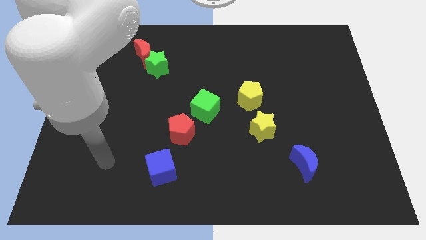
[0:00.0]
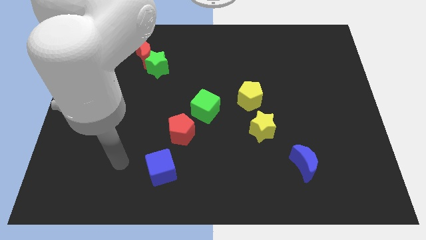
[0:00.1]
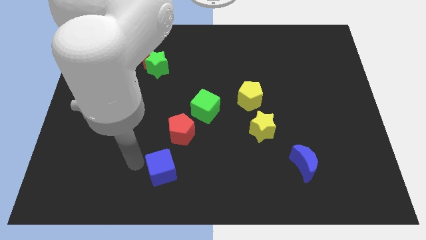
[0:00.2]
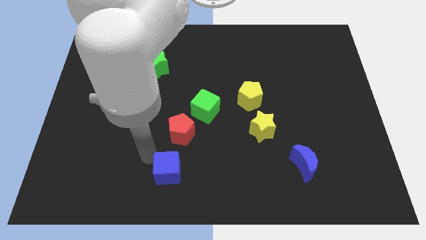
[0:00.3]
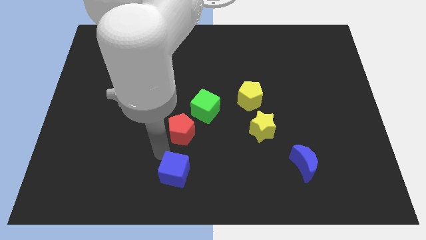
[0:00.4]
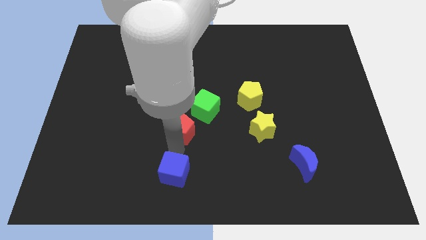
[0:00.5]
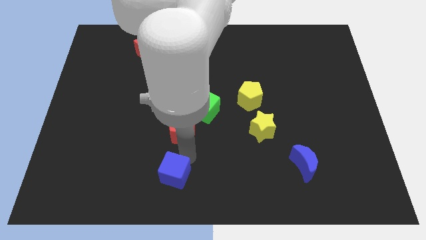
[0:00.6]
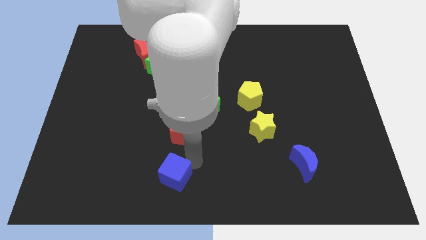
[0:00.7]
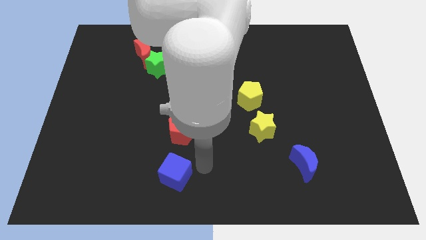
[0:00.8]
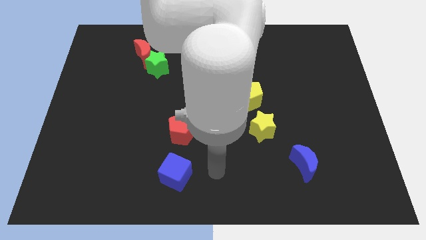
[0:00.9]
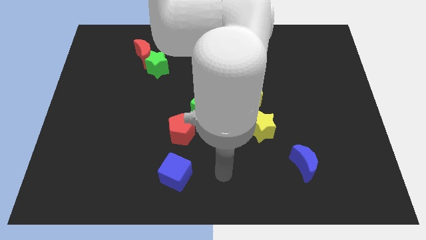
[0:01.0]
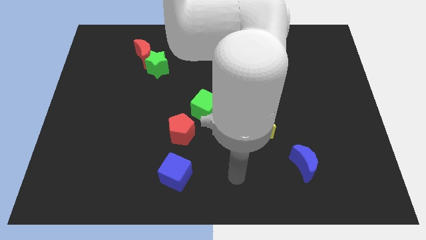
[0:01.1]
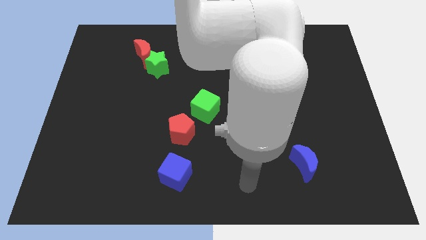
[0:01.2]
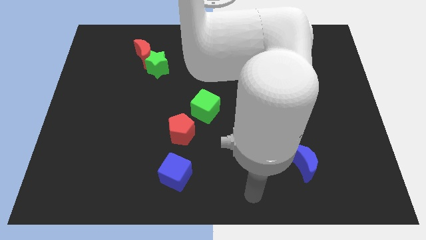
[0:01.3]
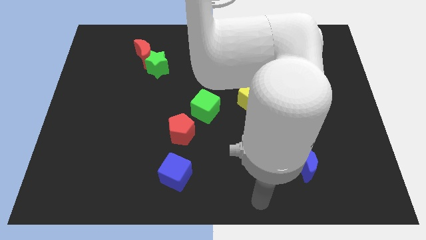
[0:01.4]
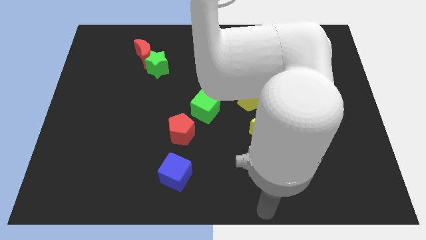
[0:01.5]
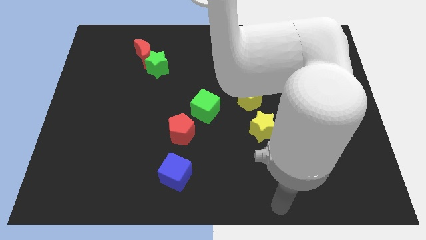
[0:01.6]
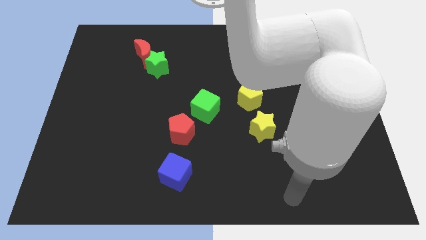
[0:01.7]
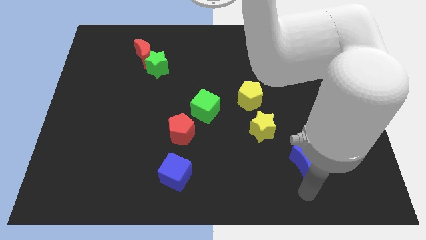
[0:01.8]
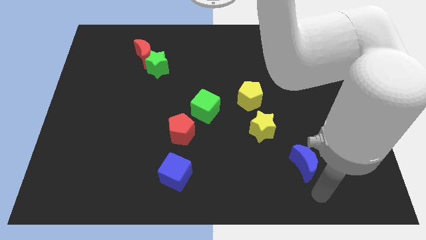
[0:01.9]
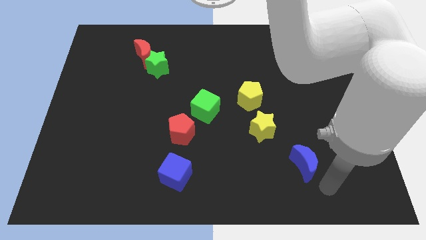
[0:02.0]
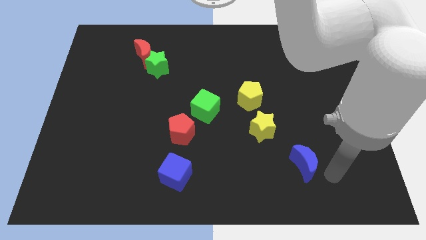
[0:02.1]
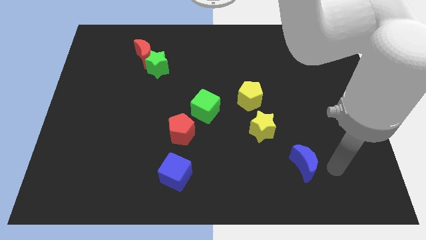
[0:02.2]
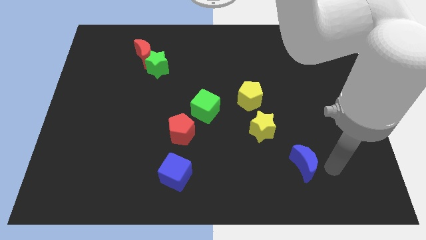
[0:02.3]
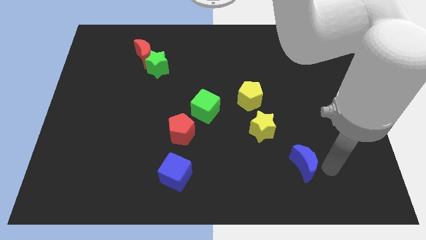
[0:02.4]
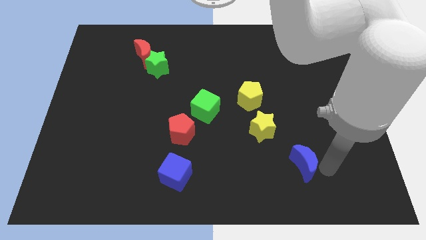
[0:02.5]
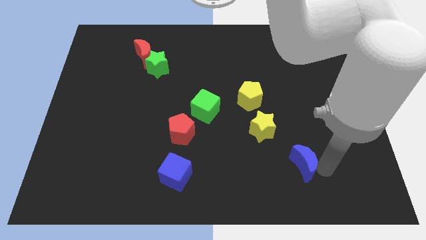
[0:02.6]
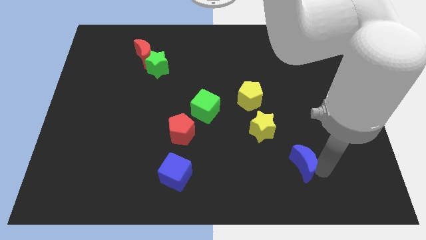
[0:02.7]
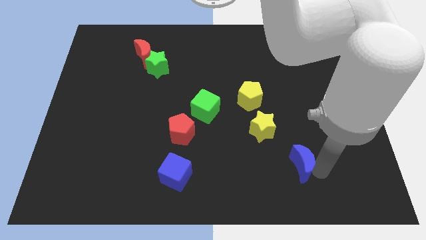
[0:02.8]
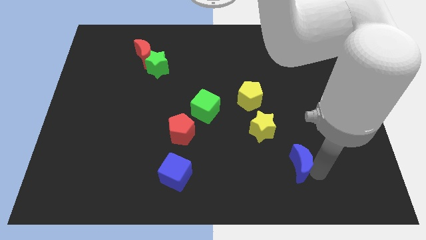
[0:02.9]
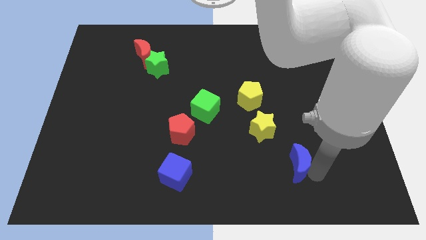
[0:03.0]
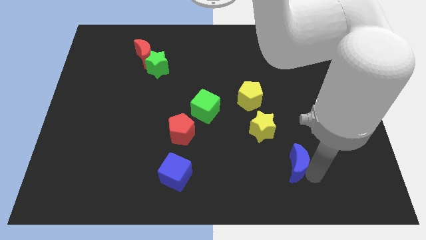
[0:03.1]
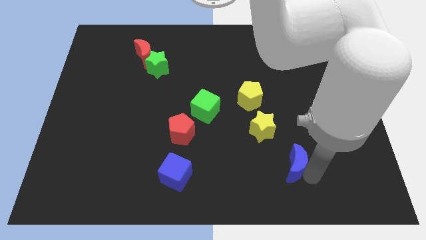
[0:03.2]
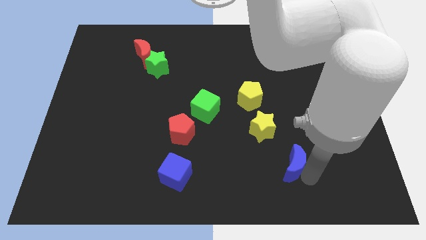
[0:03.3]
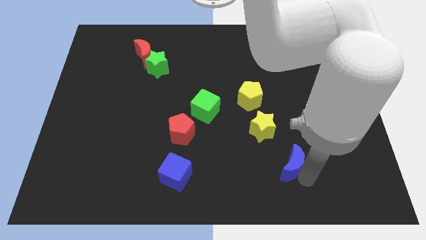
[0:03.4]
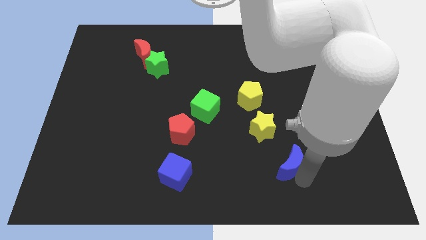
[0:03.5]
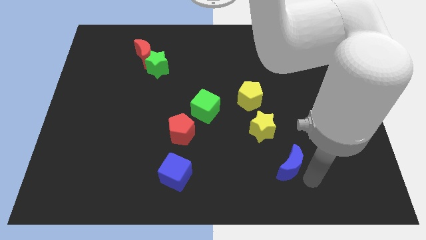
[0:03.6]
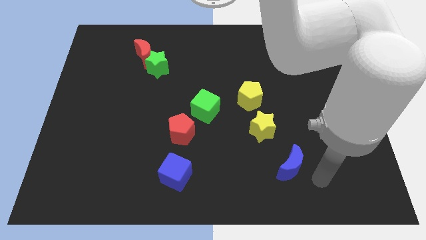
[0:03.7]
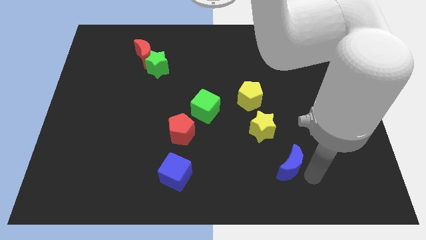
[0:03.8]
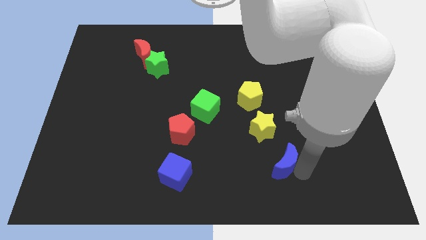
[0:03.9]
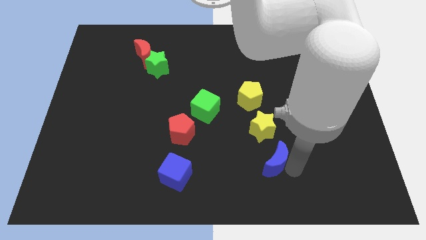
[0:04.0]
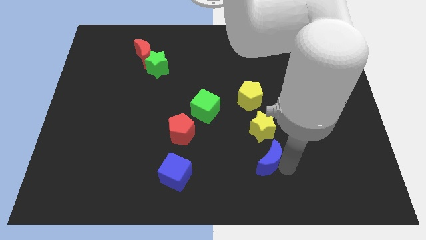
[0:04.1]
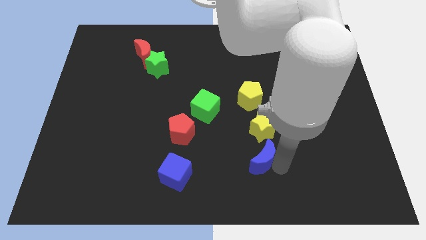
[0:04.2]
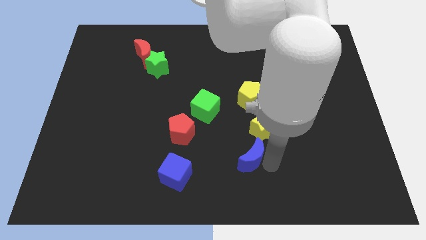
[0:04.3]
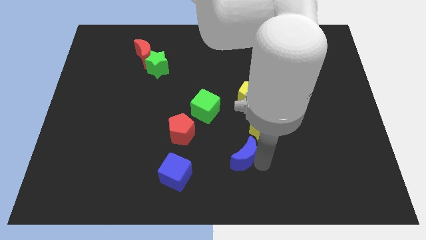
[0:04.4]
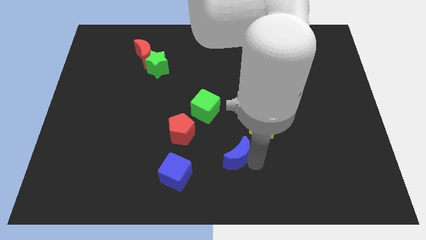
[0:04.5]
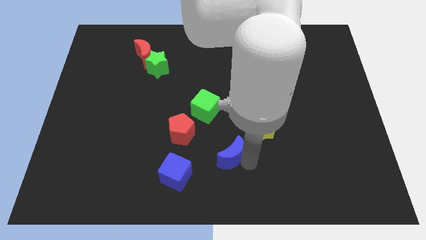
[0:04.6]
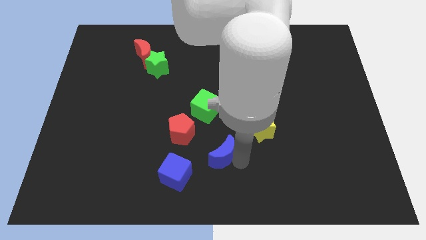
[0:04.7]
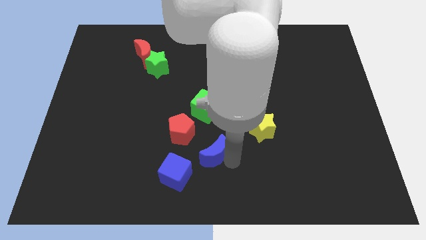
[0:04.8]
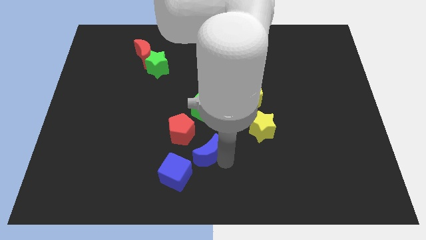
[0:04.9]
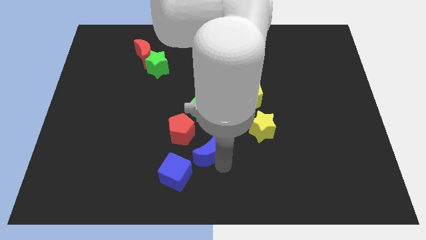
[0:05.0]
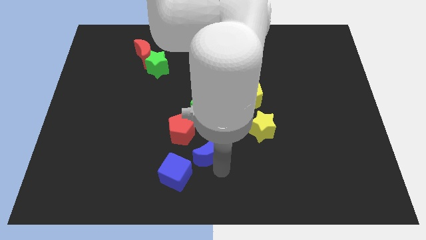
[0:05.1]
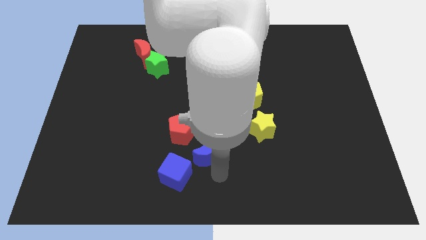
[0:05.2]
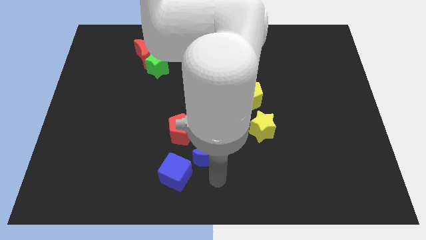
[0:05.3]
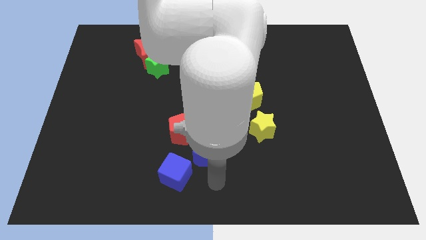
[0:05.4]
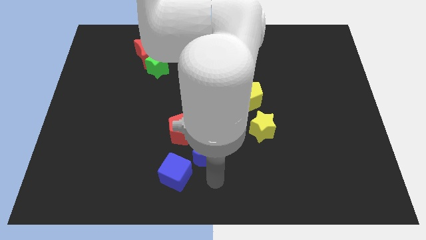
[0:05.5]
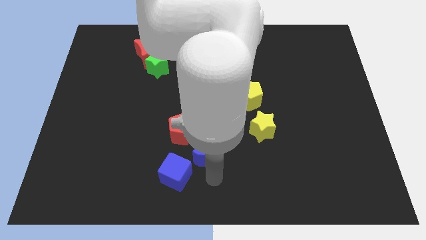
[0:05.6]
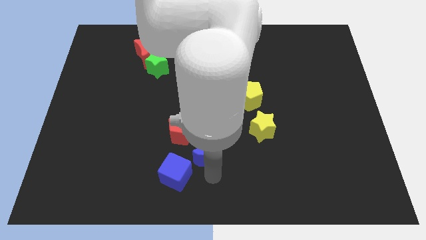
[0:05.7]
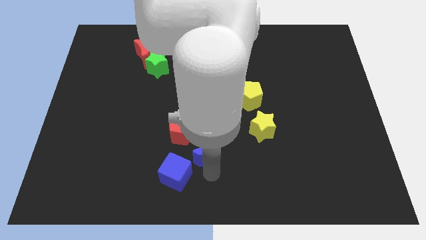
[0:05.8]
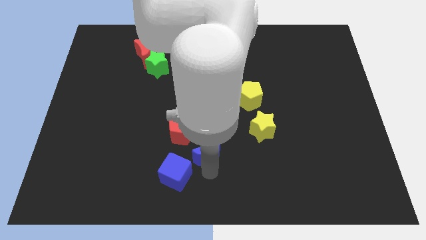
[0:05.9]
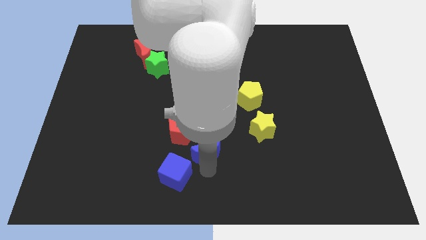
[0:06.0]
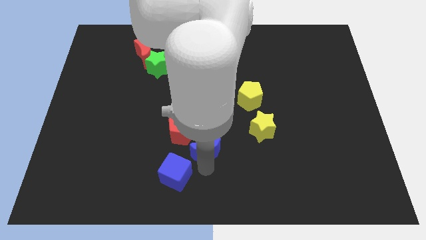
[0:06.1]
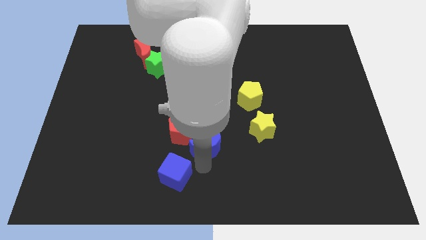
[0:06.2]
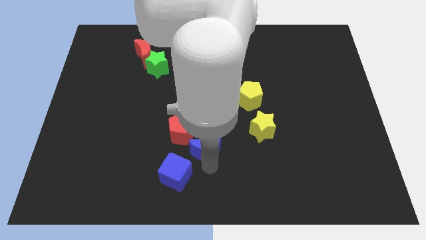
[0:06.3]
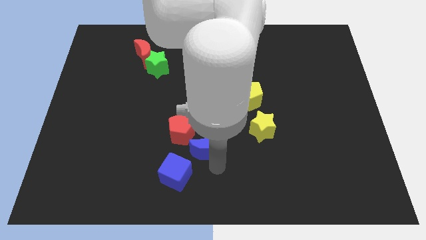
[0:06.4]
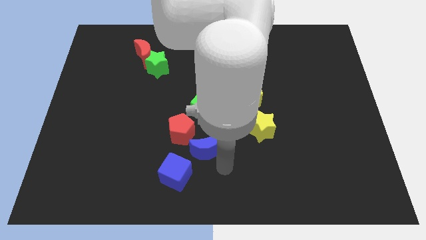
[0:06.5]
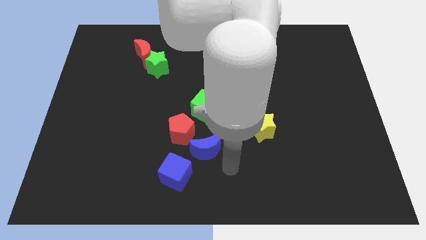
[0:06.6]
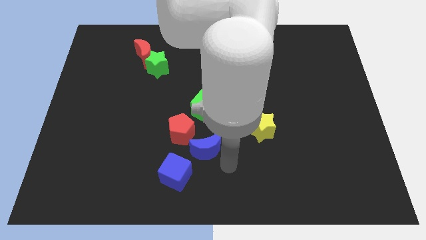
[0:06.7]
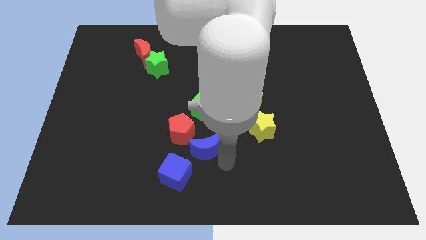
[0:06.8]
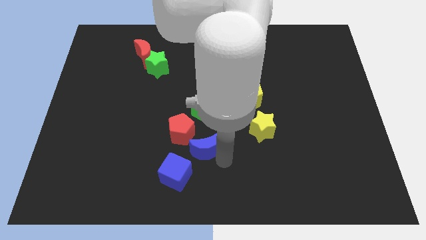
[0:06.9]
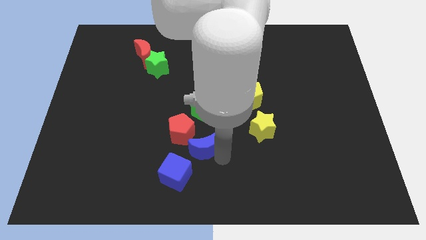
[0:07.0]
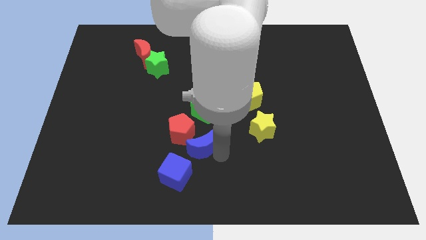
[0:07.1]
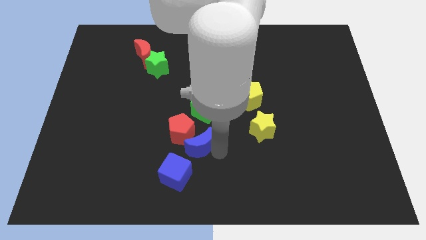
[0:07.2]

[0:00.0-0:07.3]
slide the blue moon to the red pentagon

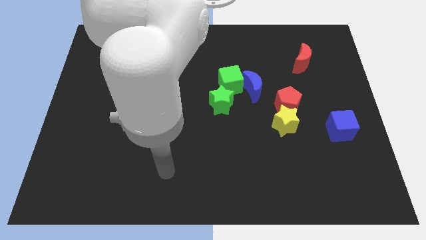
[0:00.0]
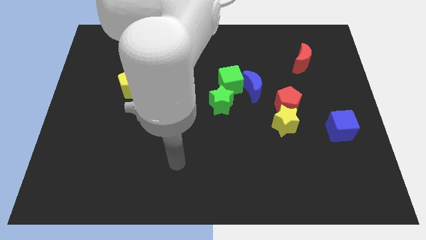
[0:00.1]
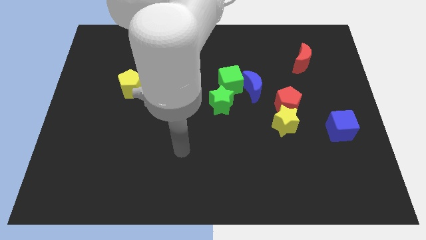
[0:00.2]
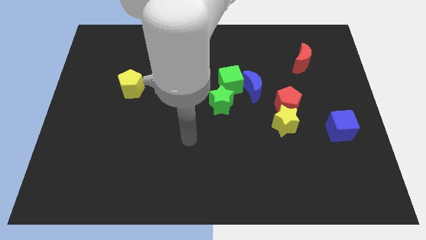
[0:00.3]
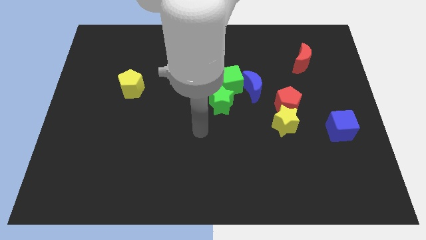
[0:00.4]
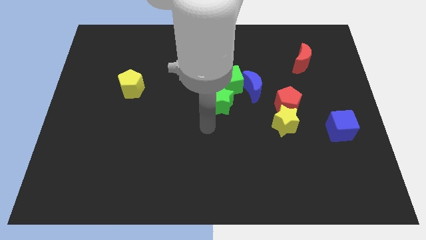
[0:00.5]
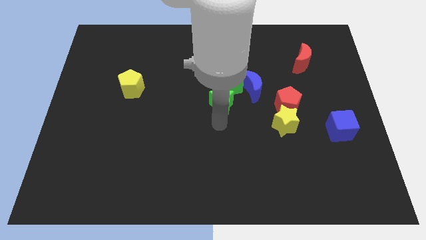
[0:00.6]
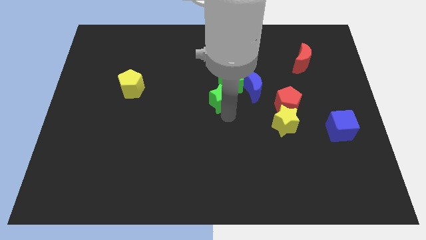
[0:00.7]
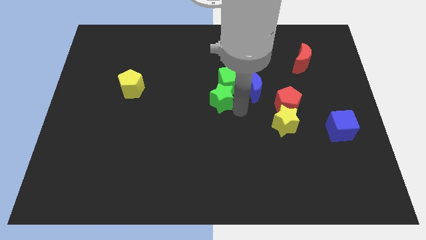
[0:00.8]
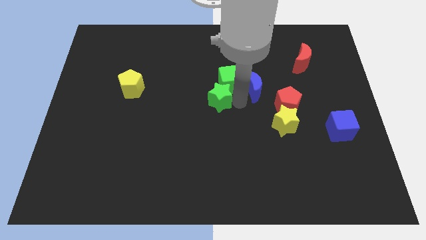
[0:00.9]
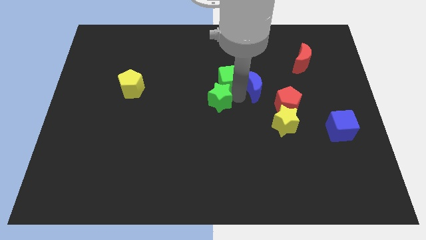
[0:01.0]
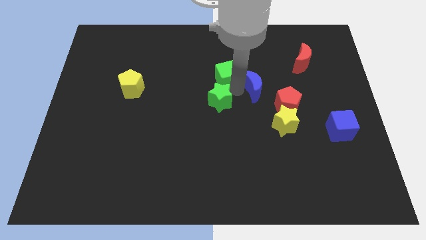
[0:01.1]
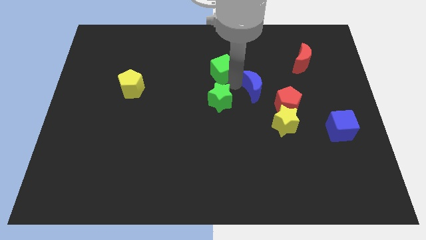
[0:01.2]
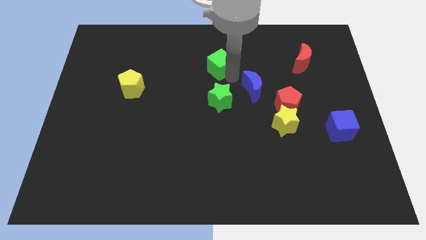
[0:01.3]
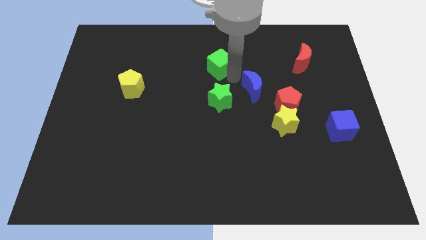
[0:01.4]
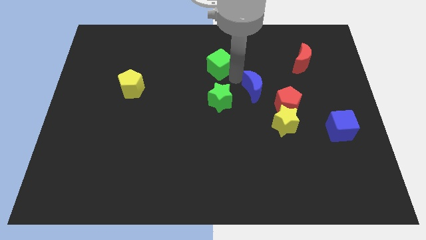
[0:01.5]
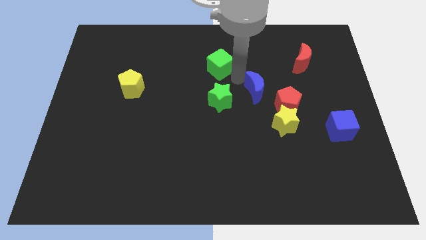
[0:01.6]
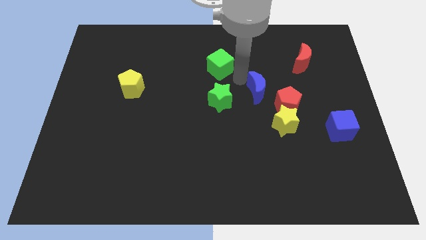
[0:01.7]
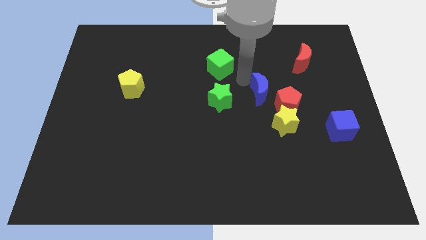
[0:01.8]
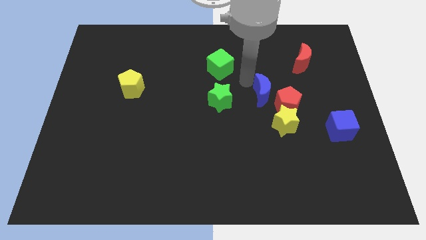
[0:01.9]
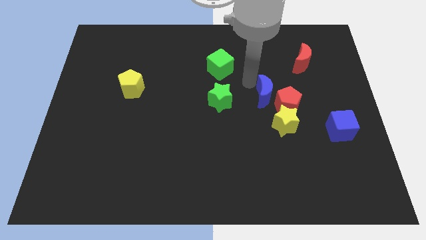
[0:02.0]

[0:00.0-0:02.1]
push the blue moon towards the red pentagon
